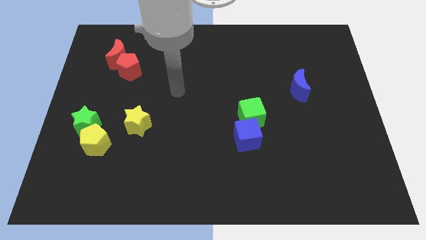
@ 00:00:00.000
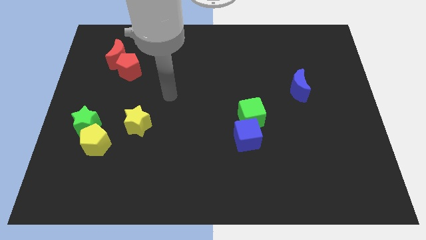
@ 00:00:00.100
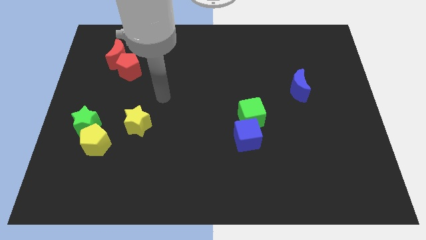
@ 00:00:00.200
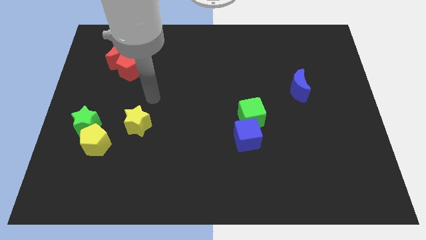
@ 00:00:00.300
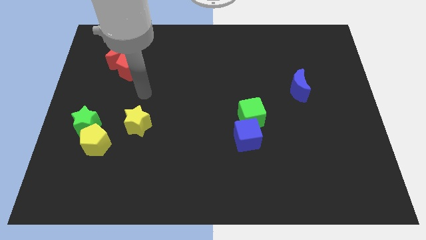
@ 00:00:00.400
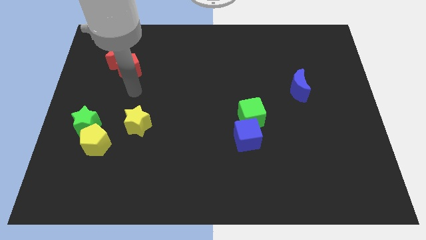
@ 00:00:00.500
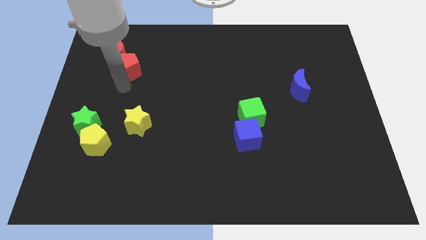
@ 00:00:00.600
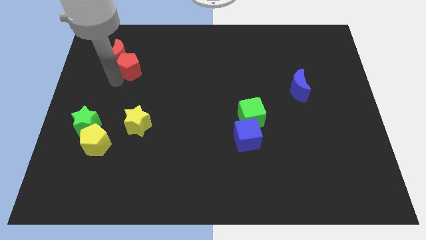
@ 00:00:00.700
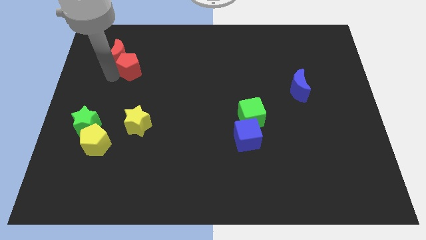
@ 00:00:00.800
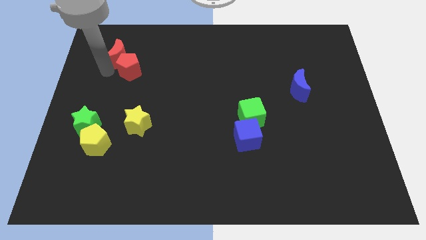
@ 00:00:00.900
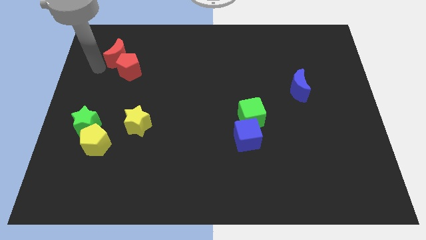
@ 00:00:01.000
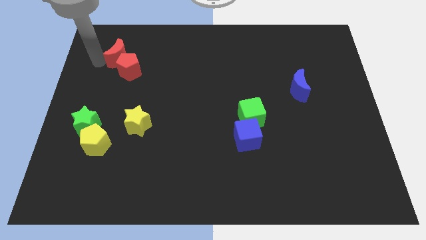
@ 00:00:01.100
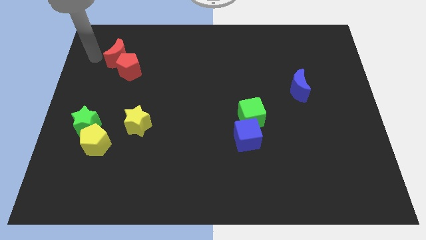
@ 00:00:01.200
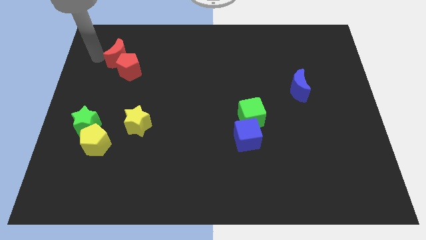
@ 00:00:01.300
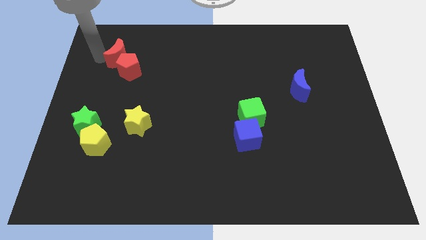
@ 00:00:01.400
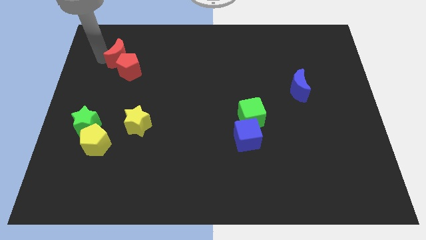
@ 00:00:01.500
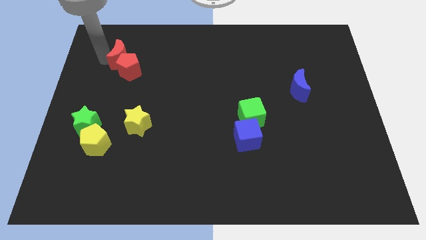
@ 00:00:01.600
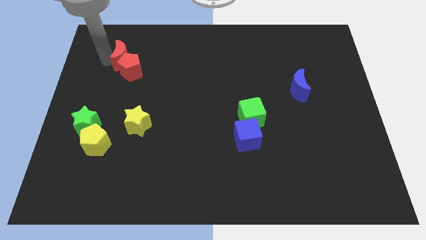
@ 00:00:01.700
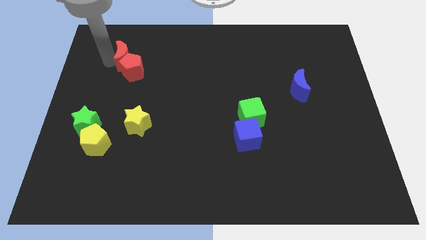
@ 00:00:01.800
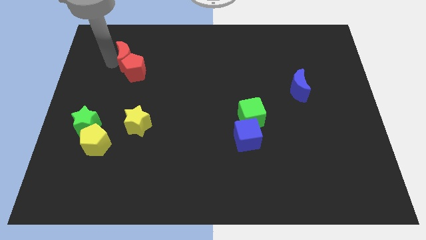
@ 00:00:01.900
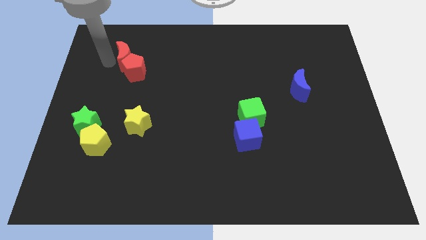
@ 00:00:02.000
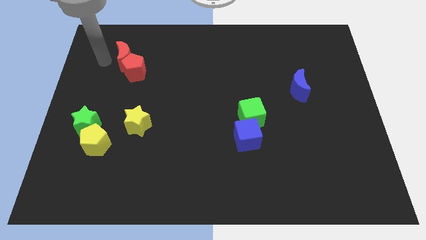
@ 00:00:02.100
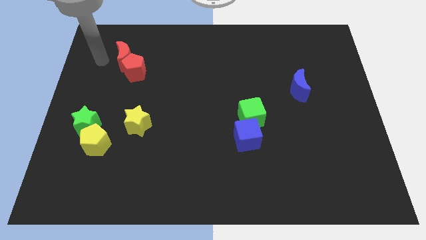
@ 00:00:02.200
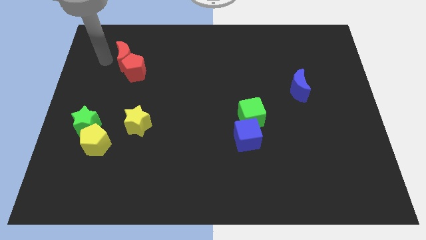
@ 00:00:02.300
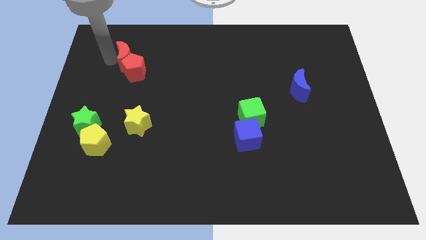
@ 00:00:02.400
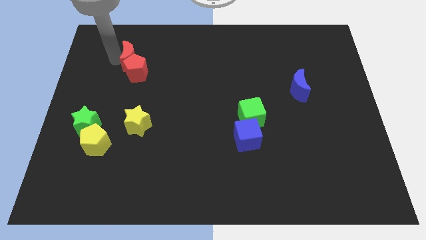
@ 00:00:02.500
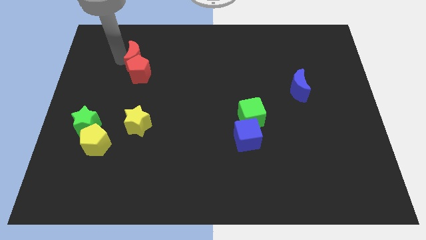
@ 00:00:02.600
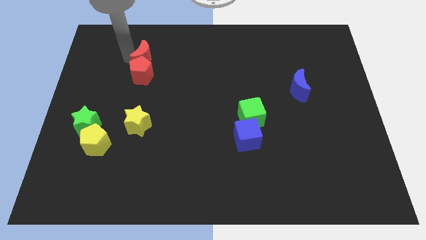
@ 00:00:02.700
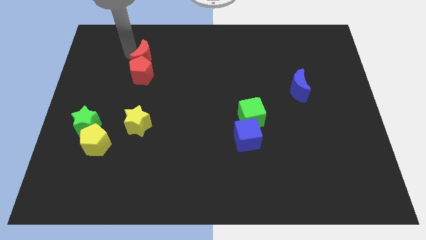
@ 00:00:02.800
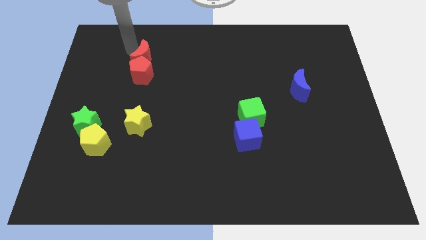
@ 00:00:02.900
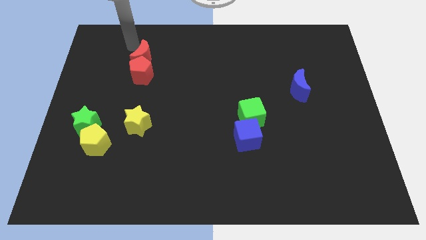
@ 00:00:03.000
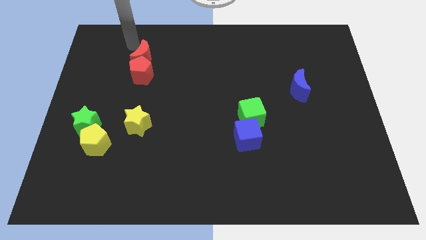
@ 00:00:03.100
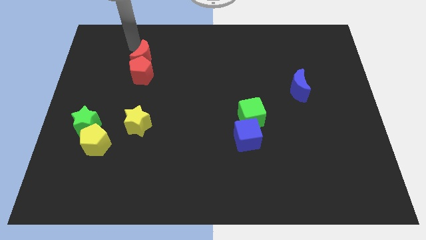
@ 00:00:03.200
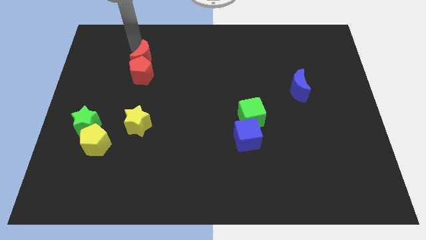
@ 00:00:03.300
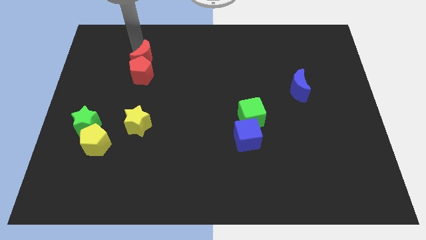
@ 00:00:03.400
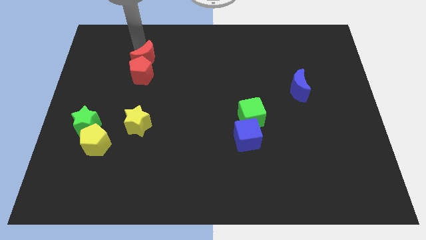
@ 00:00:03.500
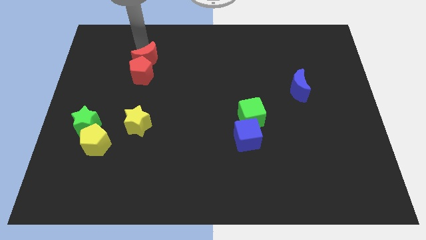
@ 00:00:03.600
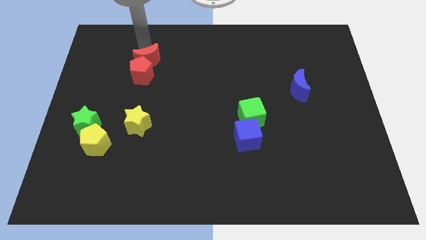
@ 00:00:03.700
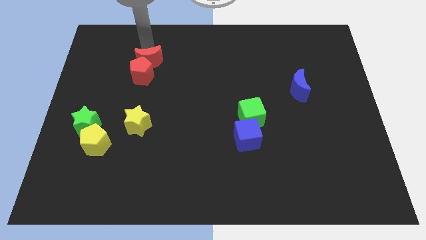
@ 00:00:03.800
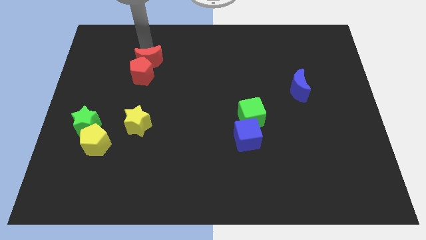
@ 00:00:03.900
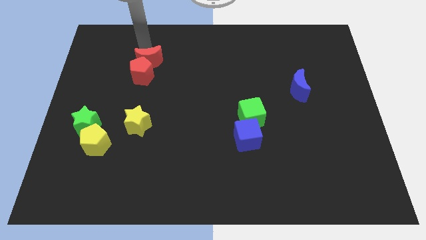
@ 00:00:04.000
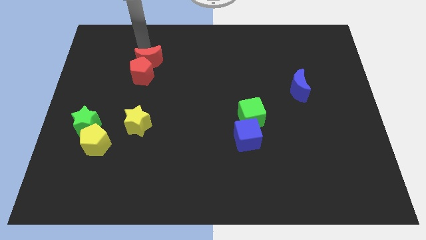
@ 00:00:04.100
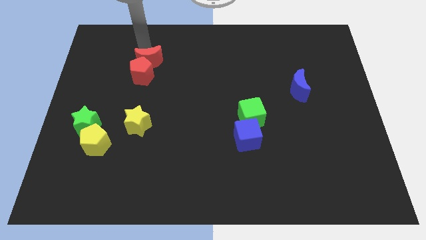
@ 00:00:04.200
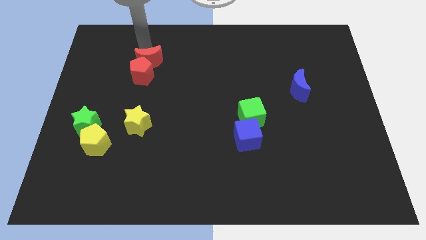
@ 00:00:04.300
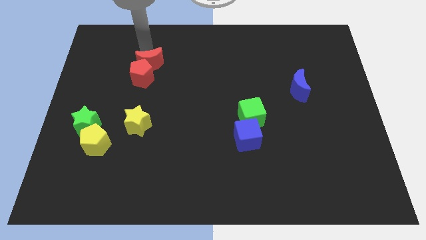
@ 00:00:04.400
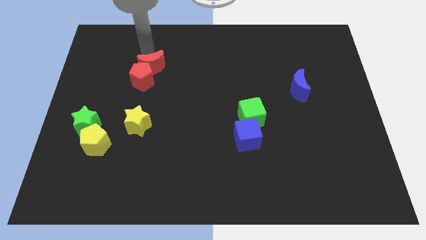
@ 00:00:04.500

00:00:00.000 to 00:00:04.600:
slide the red moon diagonally downwards and to the right somewhat

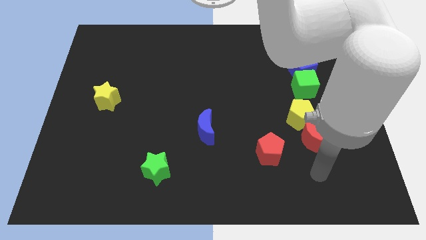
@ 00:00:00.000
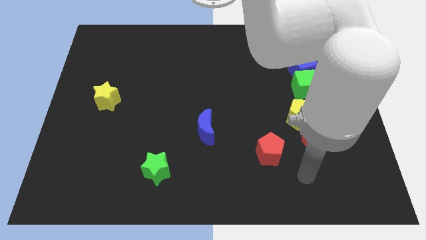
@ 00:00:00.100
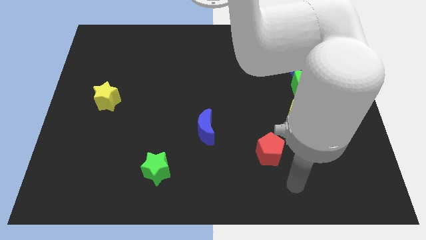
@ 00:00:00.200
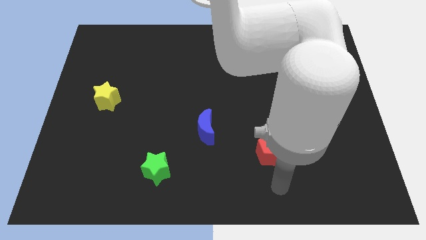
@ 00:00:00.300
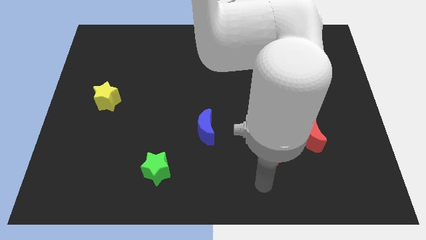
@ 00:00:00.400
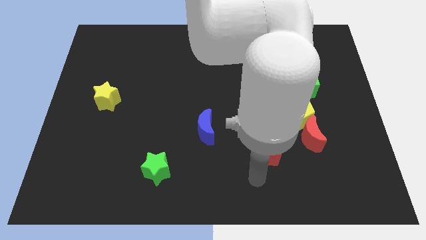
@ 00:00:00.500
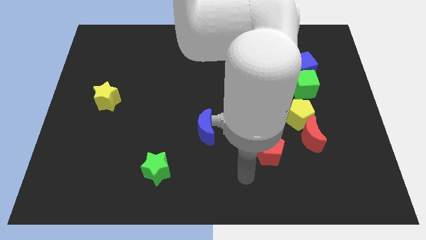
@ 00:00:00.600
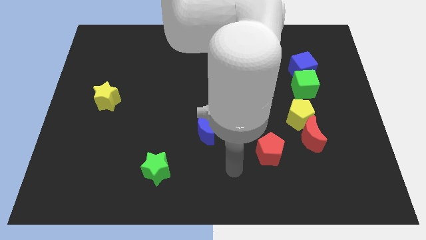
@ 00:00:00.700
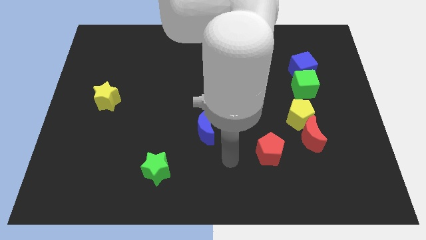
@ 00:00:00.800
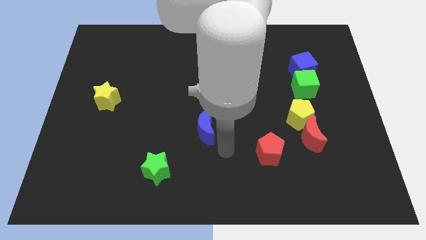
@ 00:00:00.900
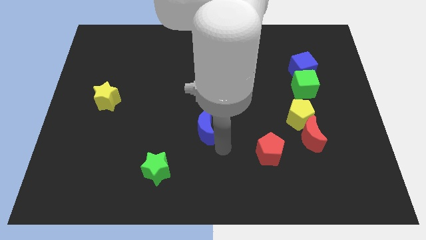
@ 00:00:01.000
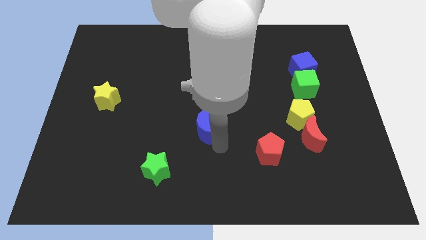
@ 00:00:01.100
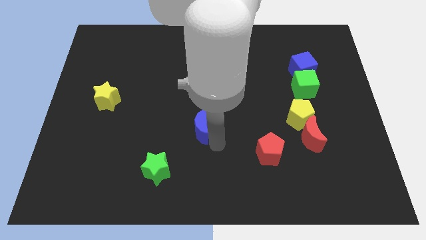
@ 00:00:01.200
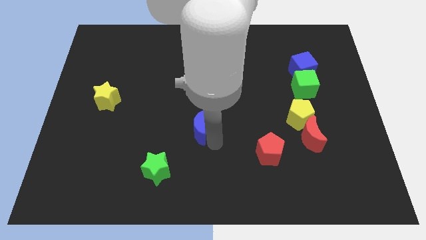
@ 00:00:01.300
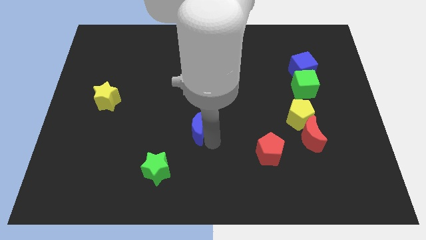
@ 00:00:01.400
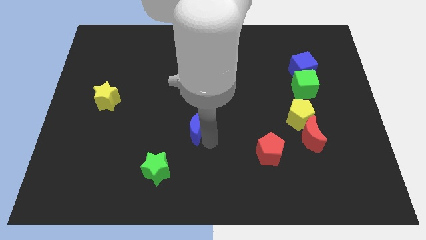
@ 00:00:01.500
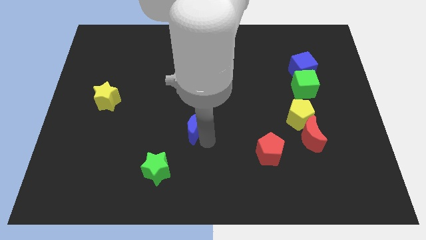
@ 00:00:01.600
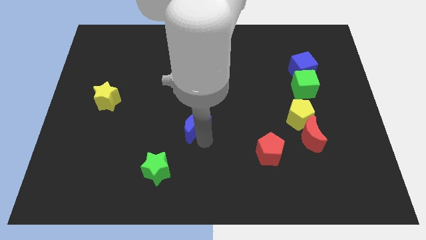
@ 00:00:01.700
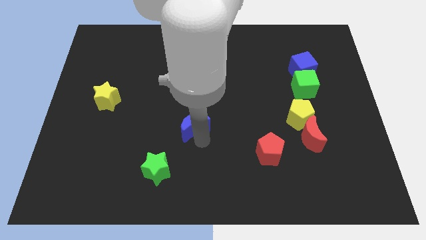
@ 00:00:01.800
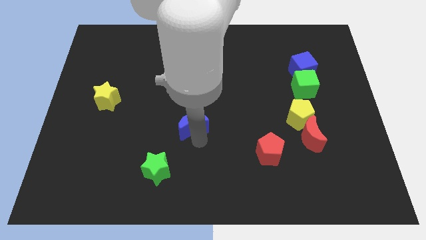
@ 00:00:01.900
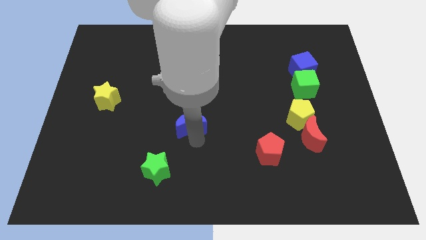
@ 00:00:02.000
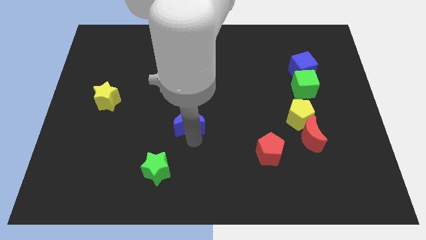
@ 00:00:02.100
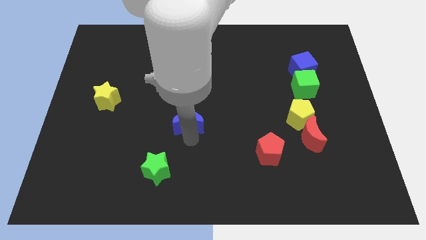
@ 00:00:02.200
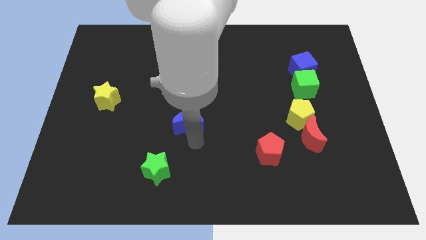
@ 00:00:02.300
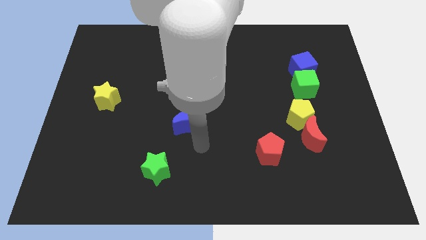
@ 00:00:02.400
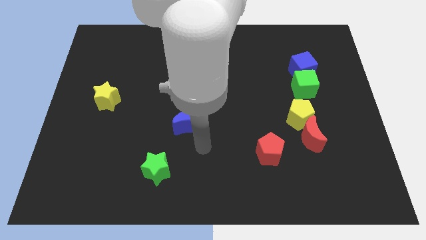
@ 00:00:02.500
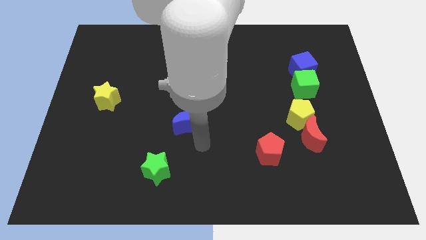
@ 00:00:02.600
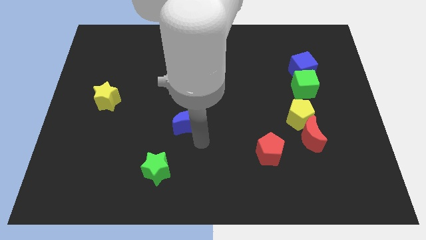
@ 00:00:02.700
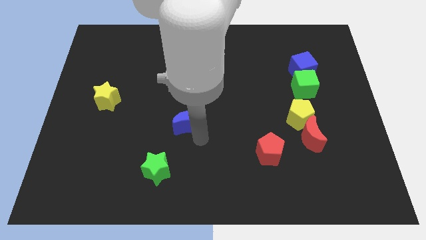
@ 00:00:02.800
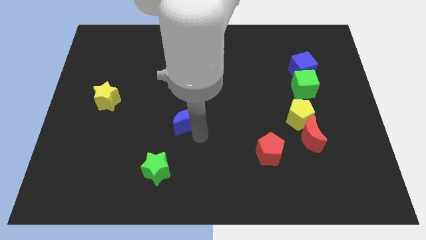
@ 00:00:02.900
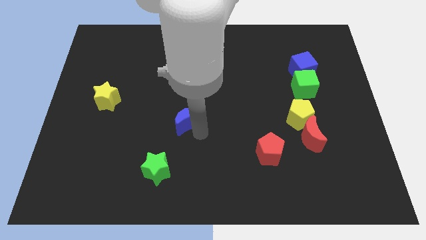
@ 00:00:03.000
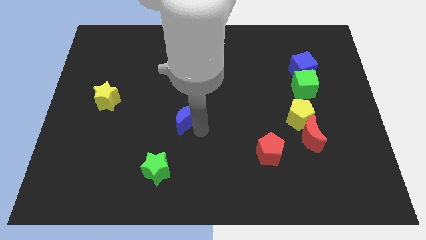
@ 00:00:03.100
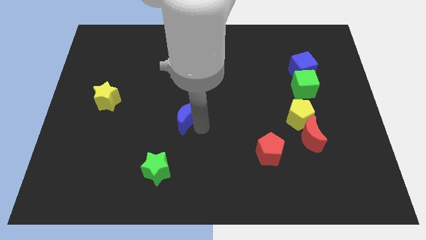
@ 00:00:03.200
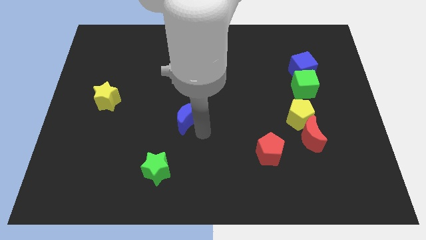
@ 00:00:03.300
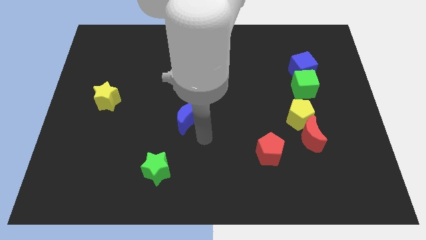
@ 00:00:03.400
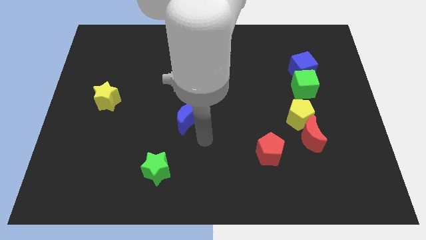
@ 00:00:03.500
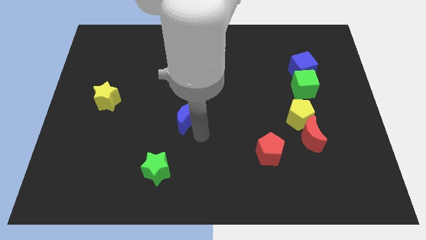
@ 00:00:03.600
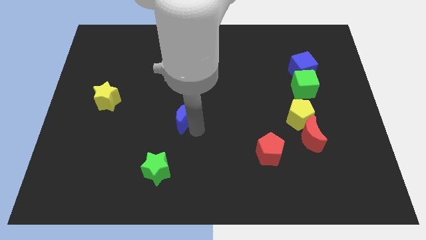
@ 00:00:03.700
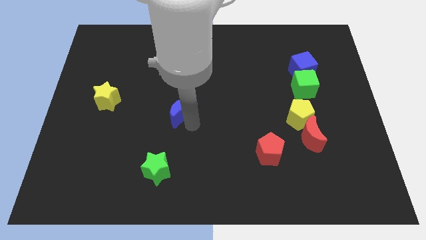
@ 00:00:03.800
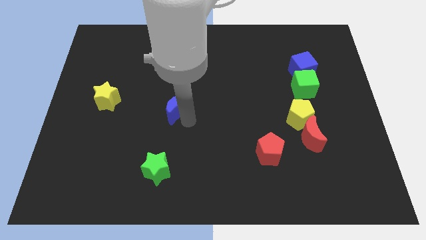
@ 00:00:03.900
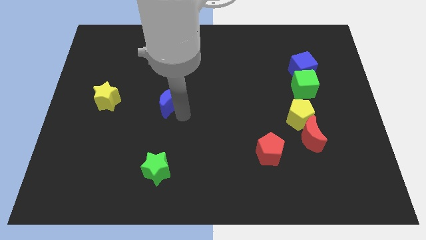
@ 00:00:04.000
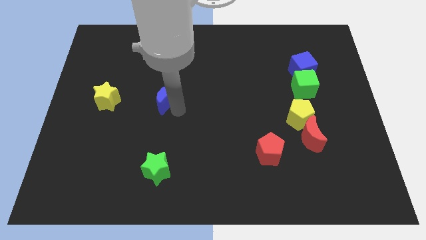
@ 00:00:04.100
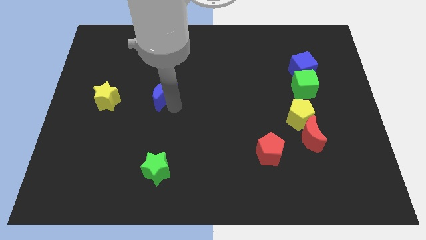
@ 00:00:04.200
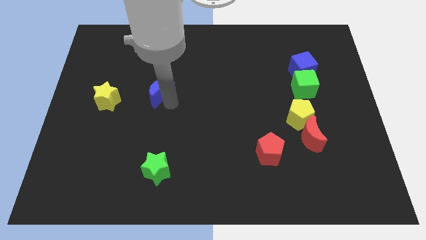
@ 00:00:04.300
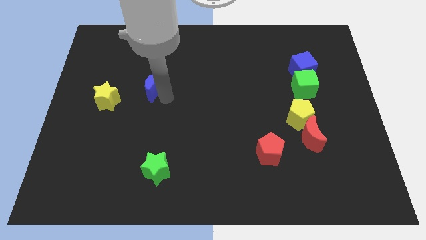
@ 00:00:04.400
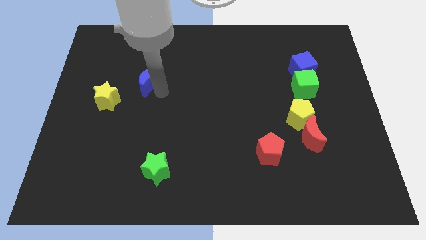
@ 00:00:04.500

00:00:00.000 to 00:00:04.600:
push the blue moon upwards and to the left diagonally
